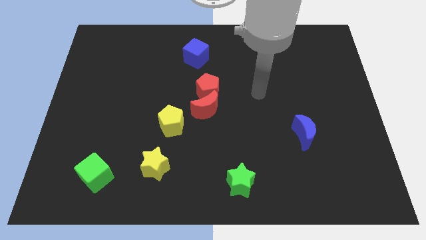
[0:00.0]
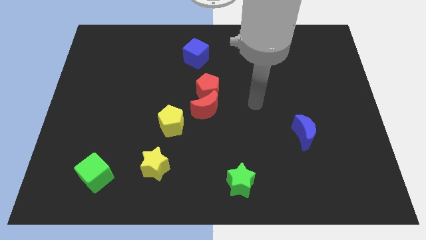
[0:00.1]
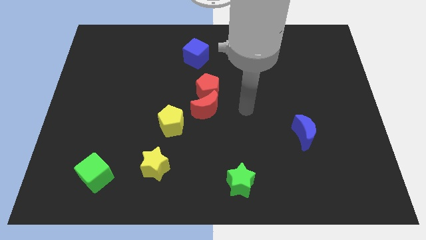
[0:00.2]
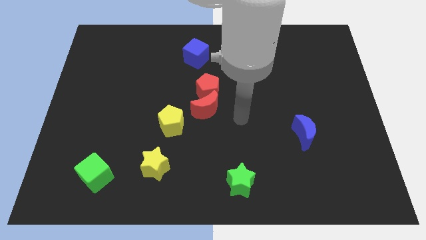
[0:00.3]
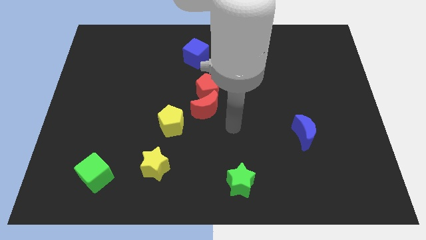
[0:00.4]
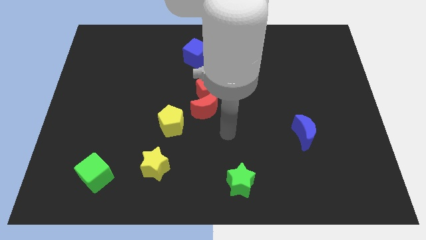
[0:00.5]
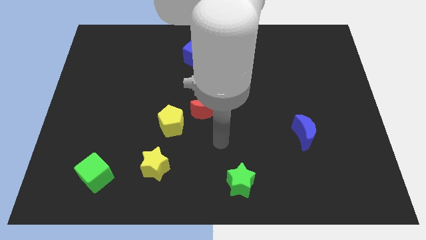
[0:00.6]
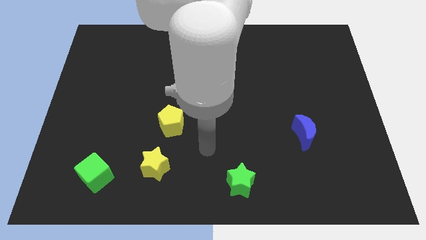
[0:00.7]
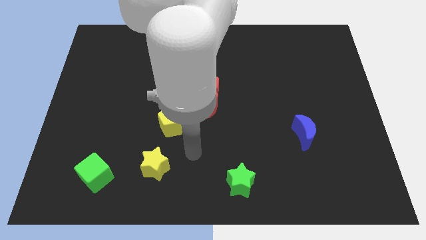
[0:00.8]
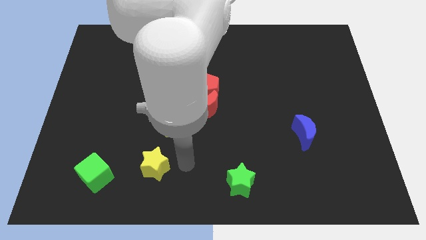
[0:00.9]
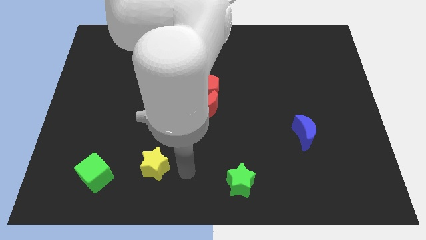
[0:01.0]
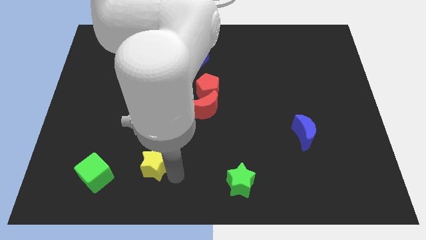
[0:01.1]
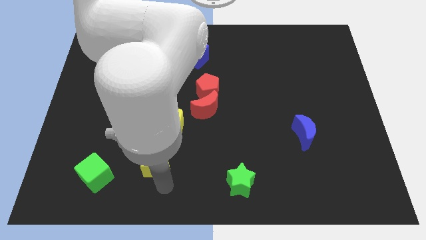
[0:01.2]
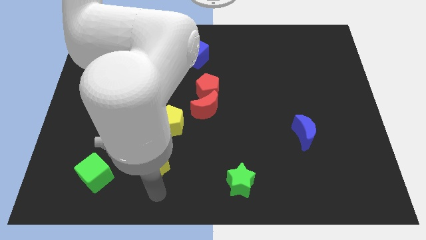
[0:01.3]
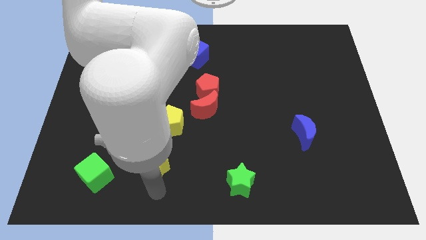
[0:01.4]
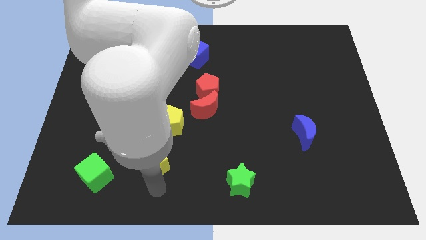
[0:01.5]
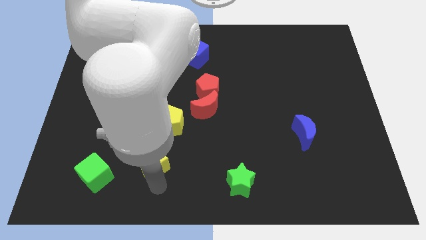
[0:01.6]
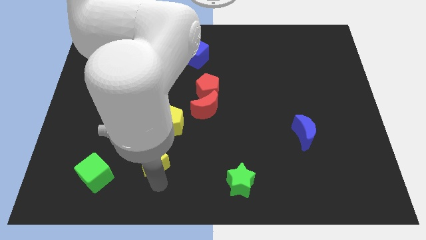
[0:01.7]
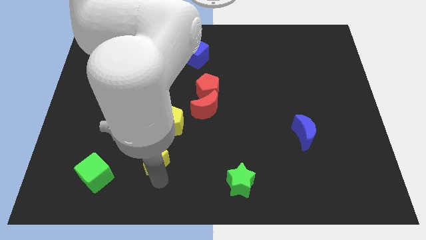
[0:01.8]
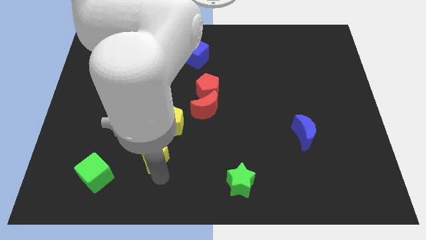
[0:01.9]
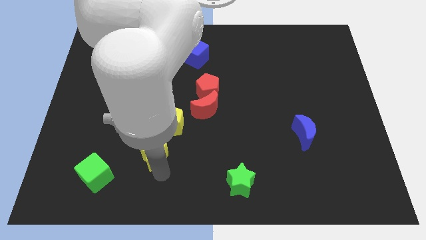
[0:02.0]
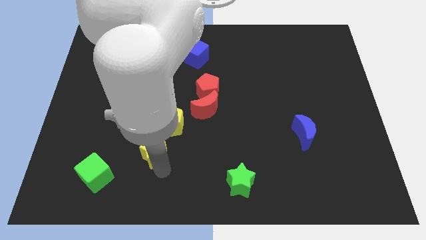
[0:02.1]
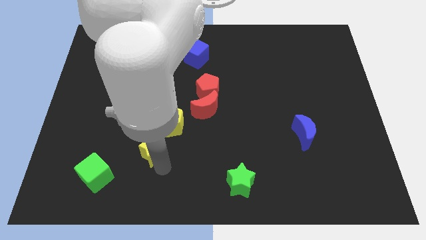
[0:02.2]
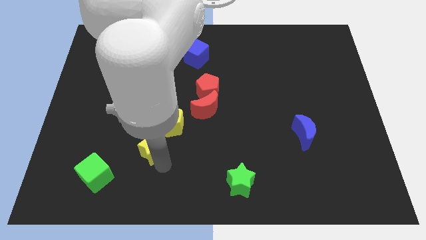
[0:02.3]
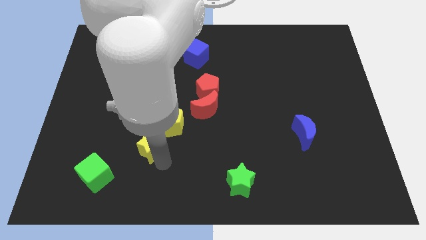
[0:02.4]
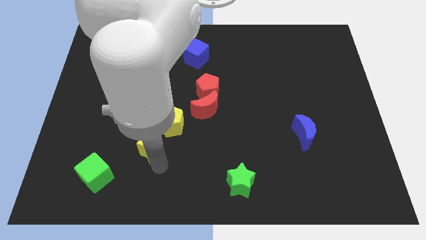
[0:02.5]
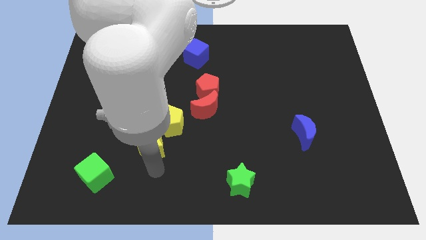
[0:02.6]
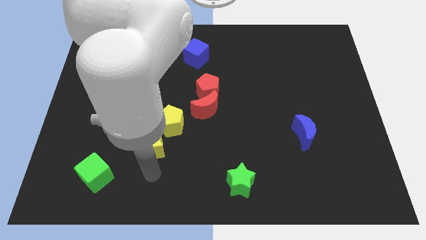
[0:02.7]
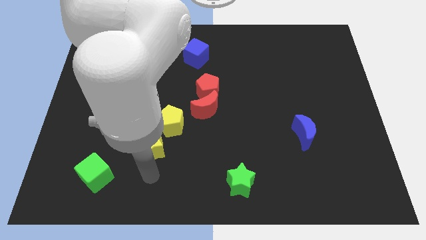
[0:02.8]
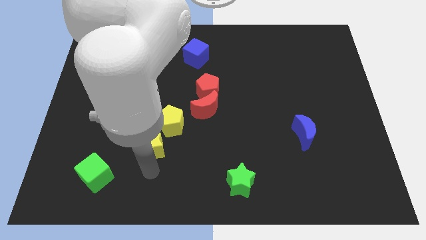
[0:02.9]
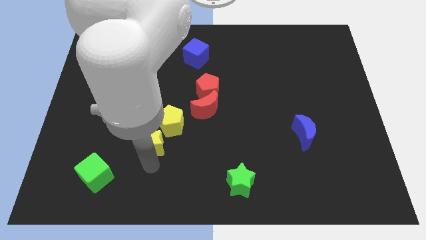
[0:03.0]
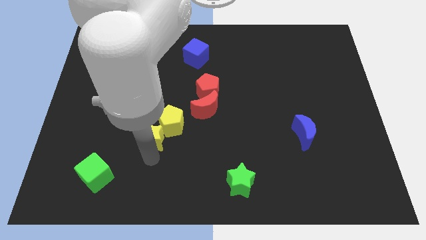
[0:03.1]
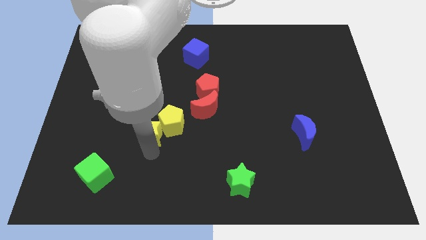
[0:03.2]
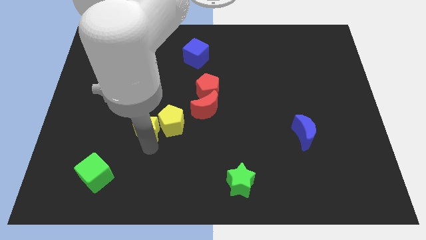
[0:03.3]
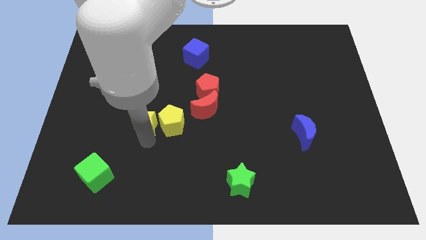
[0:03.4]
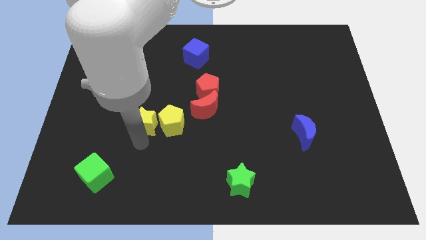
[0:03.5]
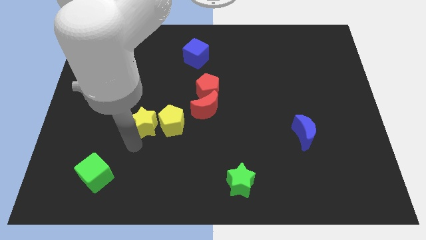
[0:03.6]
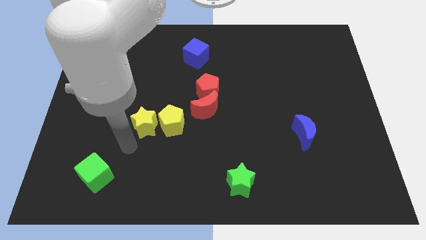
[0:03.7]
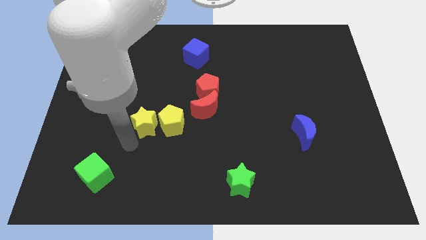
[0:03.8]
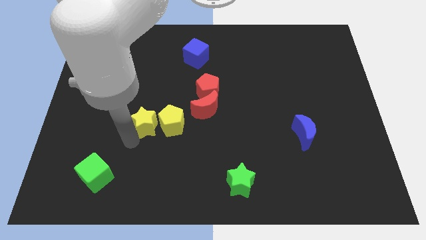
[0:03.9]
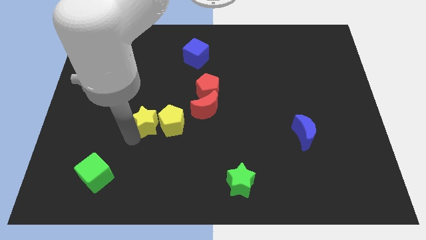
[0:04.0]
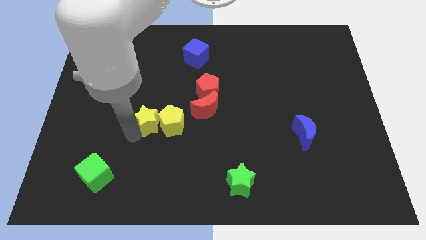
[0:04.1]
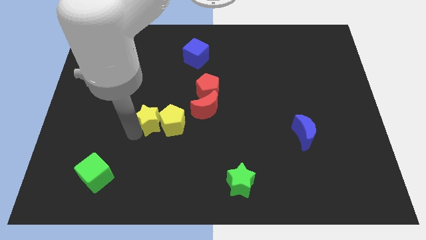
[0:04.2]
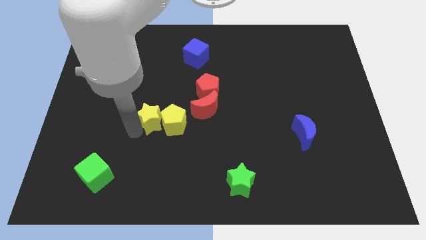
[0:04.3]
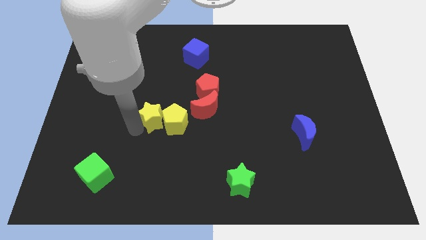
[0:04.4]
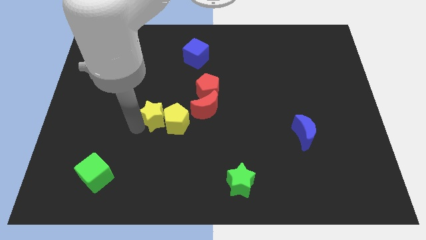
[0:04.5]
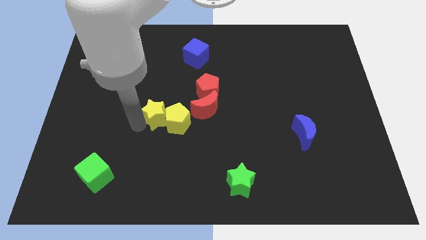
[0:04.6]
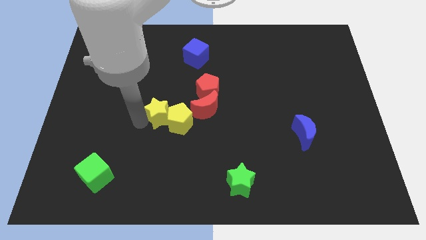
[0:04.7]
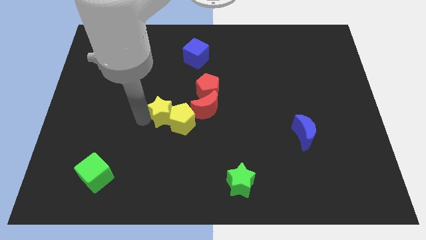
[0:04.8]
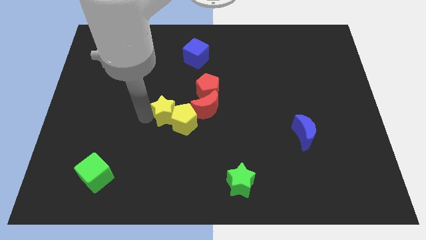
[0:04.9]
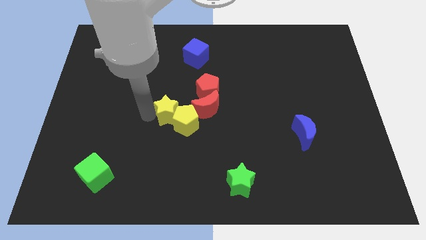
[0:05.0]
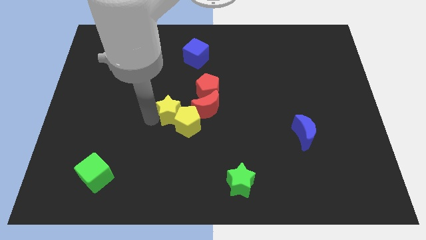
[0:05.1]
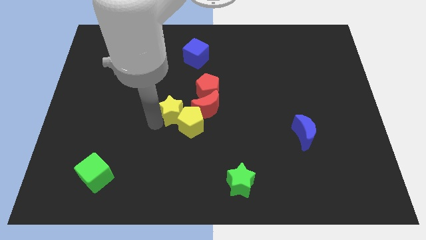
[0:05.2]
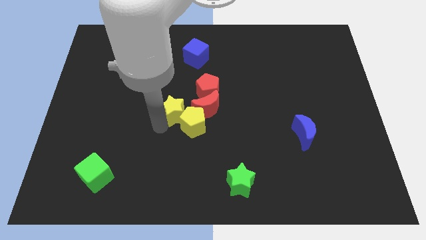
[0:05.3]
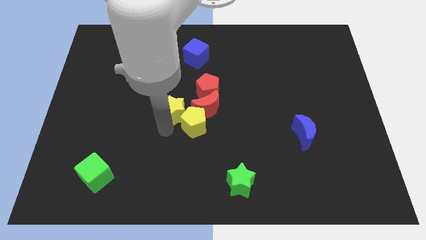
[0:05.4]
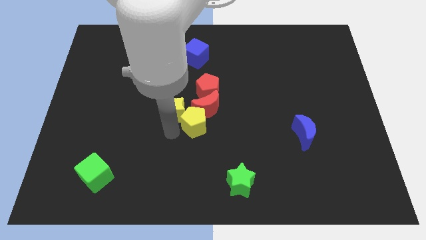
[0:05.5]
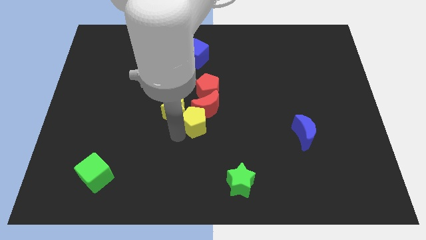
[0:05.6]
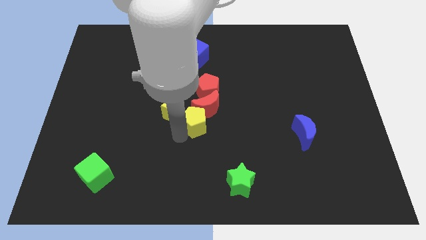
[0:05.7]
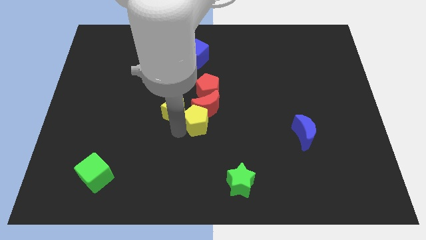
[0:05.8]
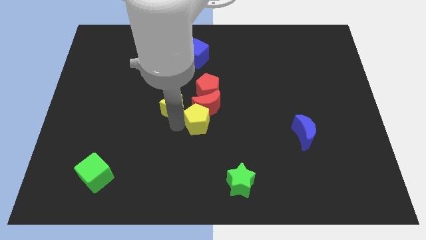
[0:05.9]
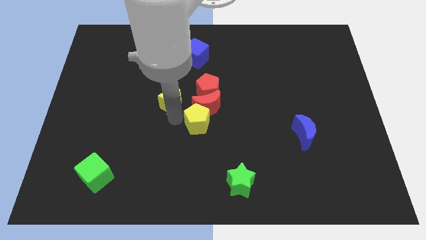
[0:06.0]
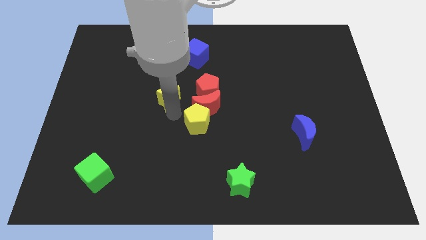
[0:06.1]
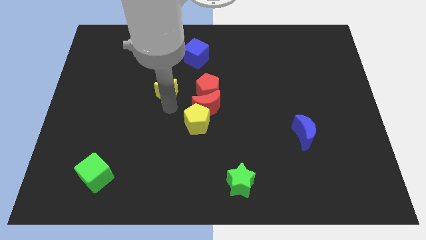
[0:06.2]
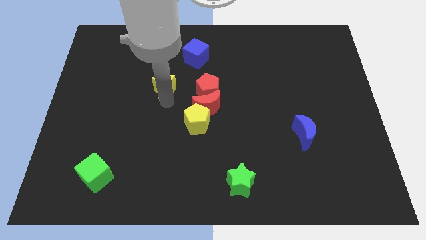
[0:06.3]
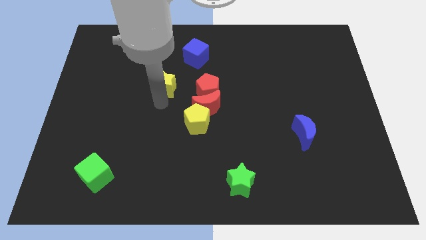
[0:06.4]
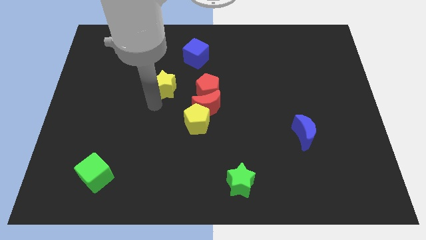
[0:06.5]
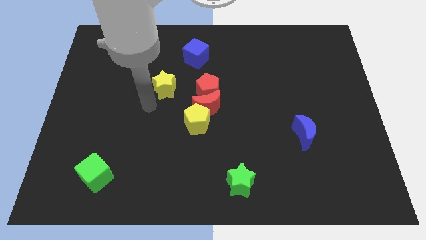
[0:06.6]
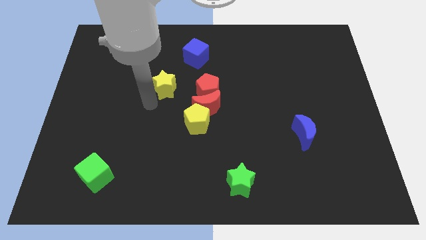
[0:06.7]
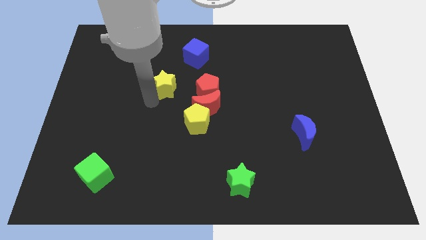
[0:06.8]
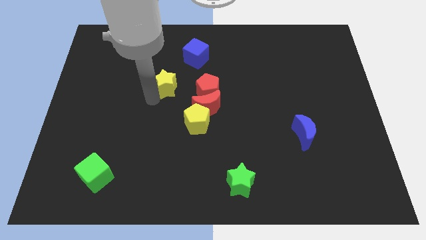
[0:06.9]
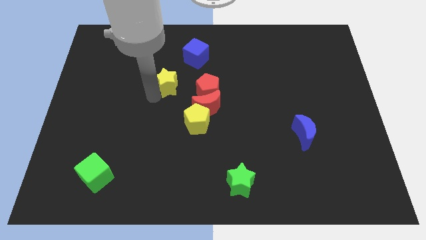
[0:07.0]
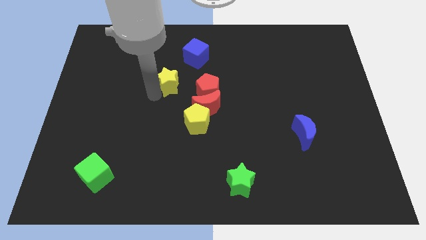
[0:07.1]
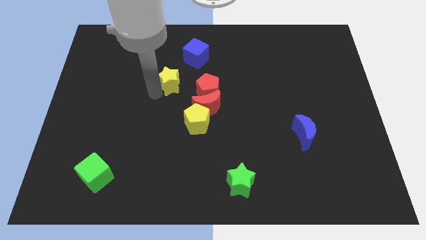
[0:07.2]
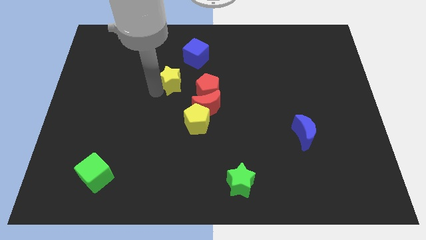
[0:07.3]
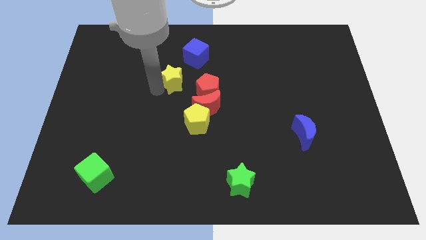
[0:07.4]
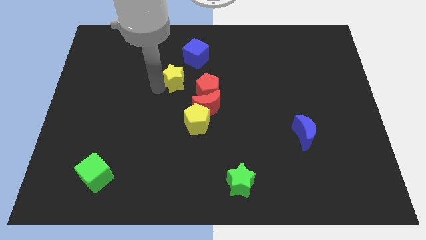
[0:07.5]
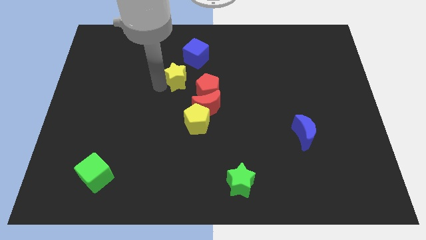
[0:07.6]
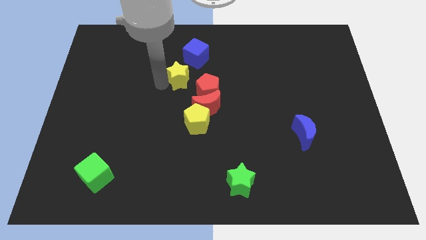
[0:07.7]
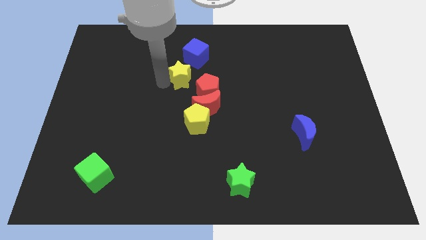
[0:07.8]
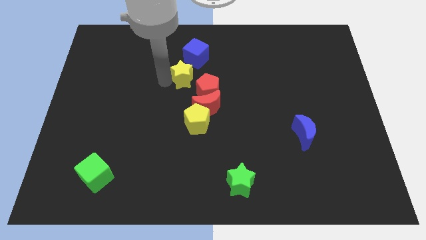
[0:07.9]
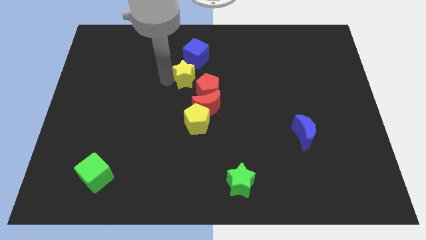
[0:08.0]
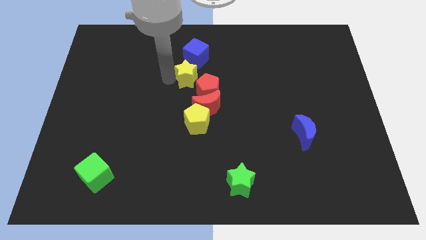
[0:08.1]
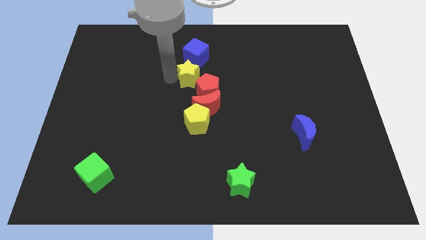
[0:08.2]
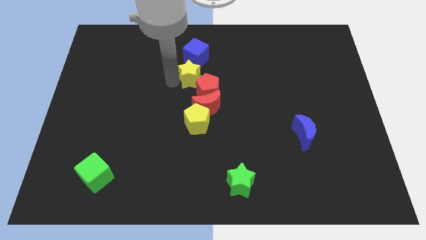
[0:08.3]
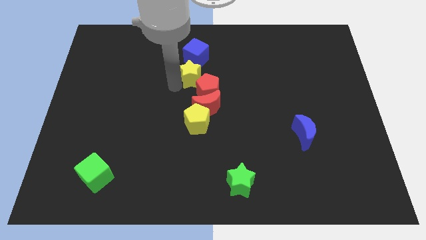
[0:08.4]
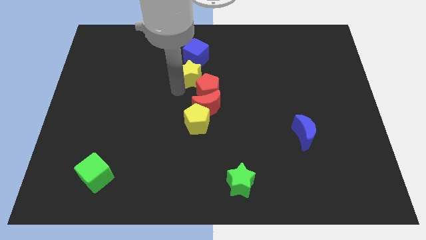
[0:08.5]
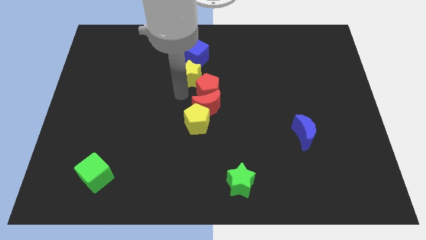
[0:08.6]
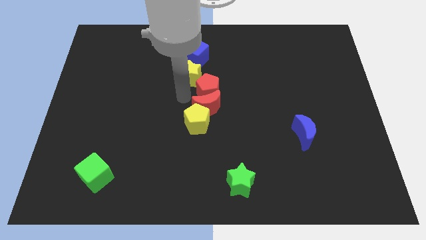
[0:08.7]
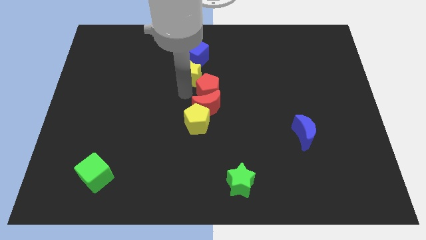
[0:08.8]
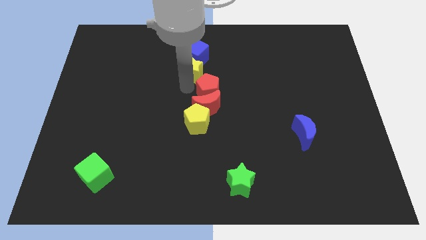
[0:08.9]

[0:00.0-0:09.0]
push the yellow star towards the blue cube
